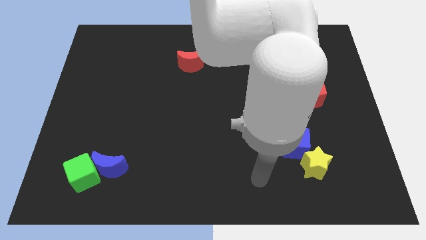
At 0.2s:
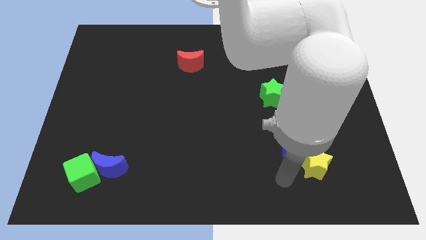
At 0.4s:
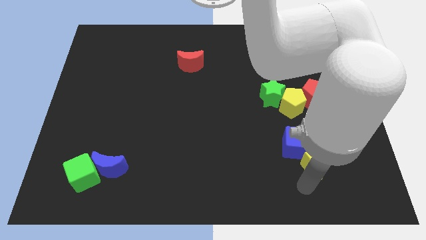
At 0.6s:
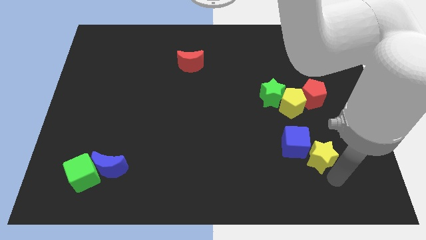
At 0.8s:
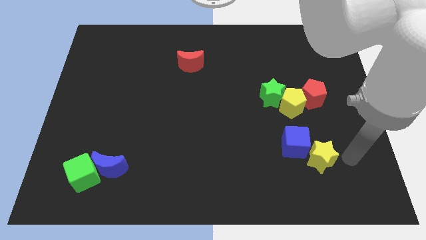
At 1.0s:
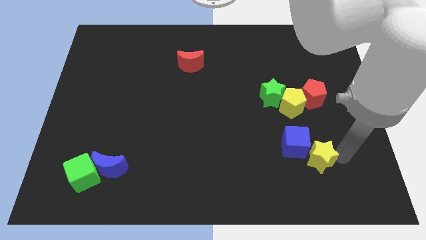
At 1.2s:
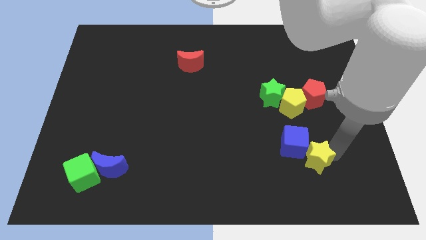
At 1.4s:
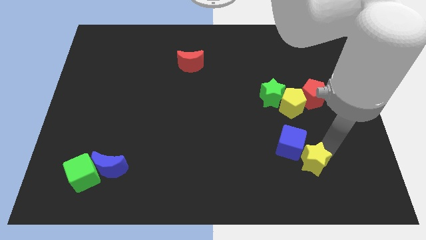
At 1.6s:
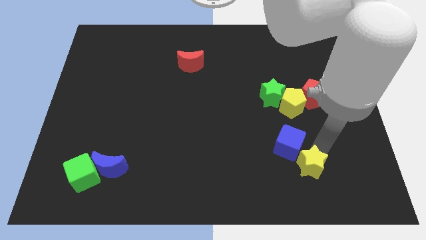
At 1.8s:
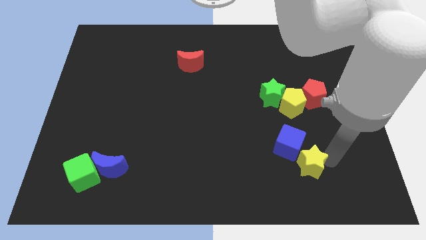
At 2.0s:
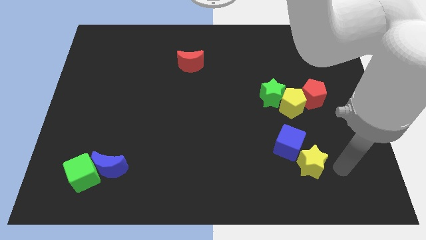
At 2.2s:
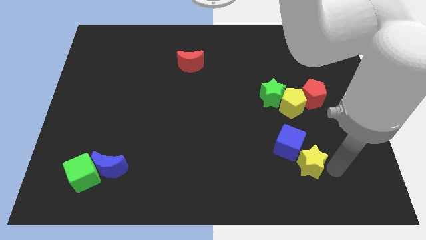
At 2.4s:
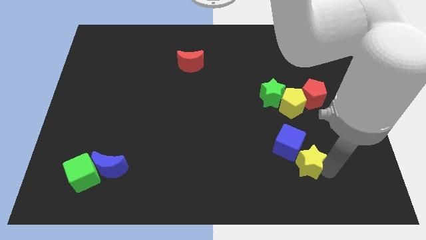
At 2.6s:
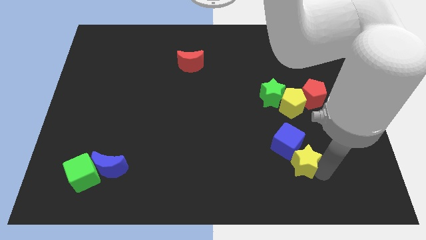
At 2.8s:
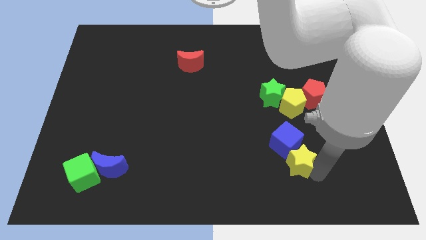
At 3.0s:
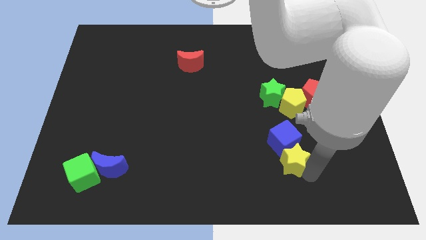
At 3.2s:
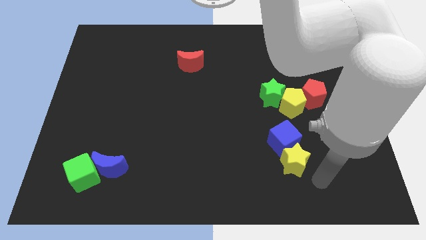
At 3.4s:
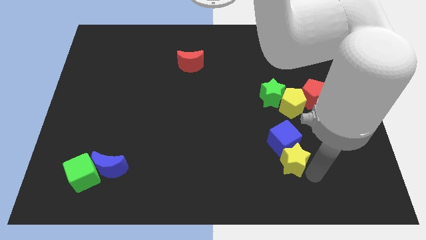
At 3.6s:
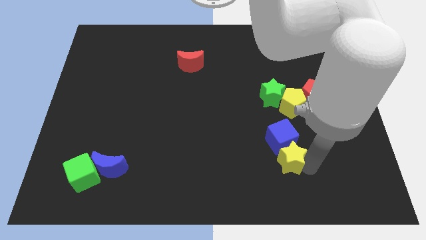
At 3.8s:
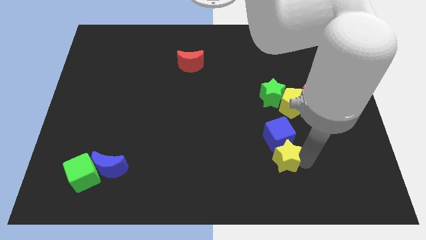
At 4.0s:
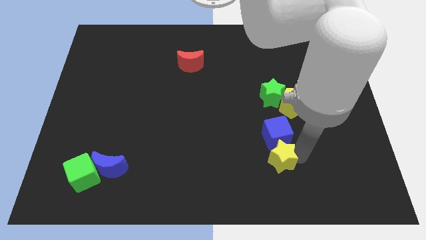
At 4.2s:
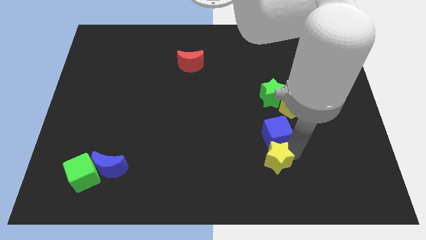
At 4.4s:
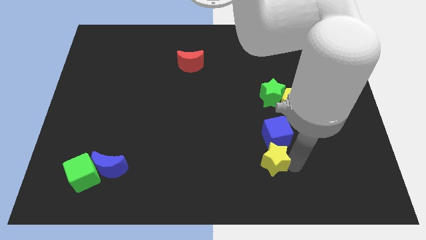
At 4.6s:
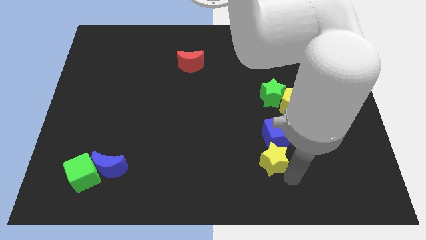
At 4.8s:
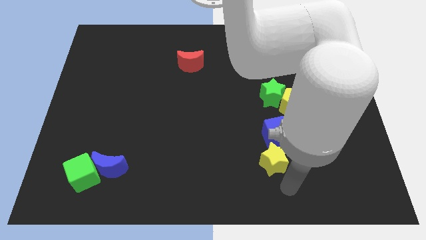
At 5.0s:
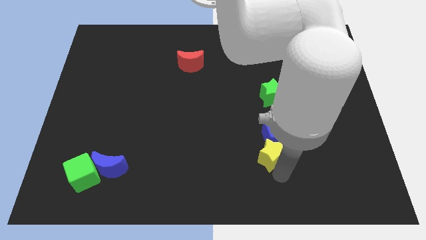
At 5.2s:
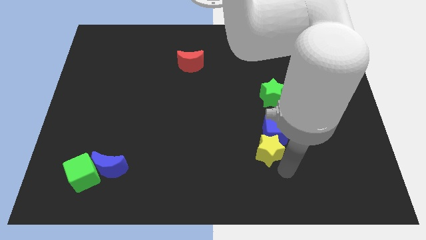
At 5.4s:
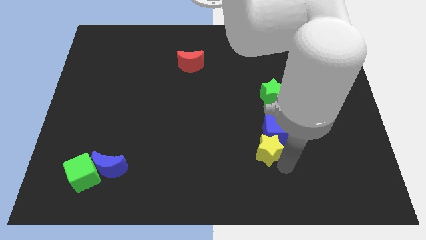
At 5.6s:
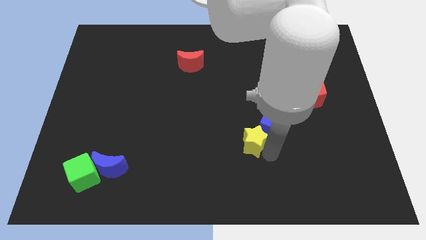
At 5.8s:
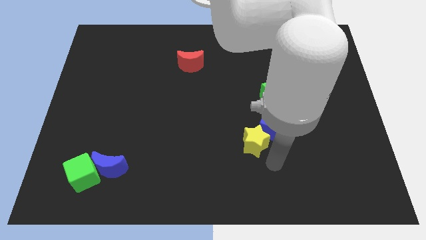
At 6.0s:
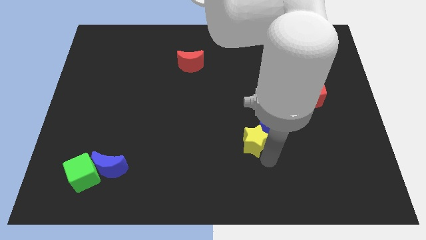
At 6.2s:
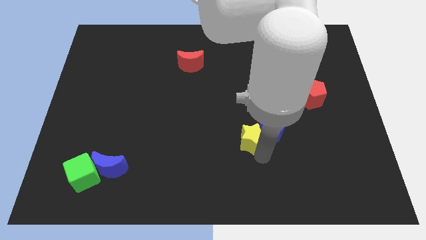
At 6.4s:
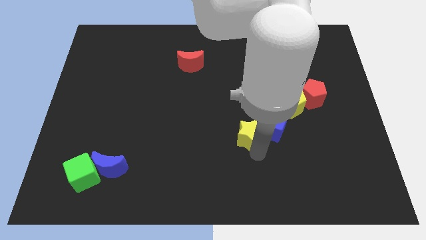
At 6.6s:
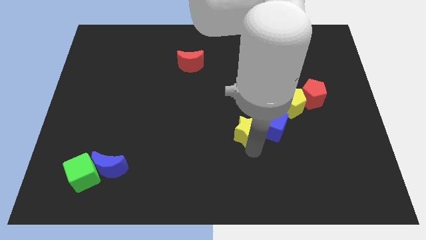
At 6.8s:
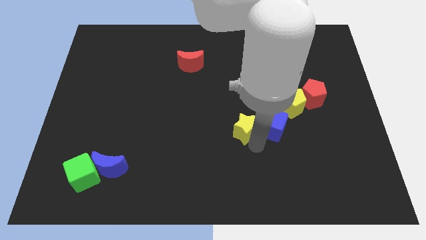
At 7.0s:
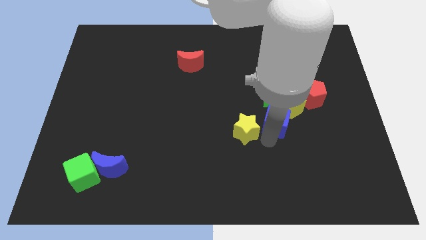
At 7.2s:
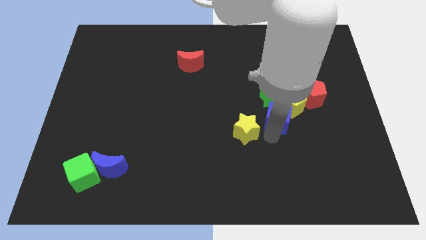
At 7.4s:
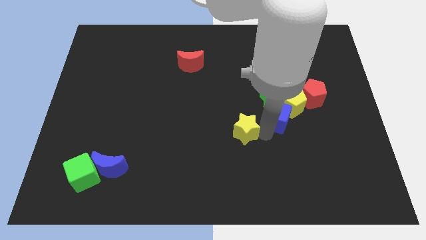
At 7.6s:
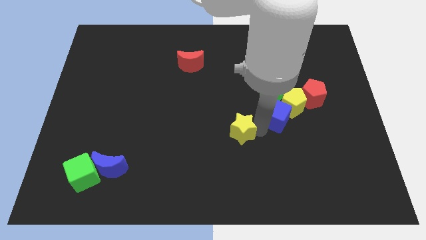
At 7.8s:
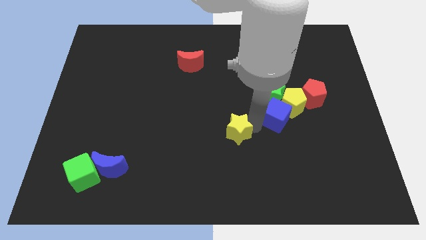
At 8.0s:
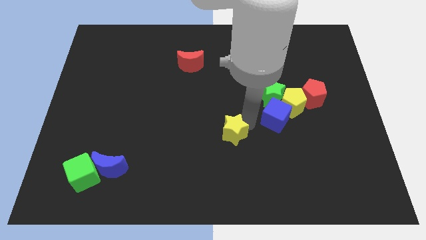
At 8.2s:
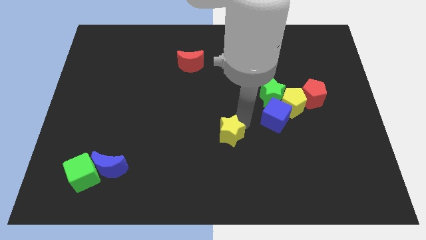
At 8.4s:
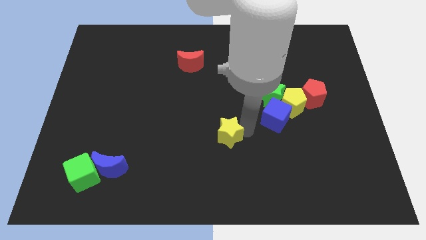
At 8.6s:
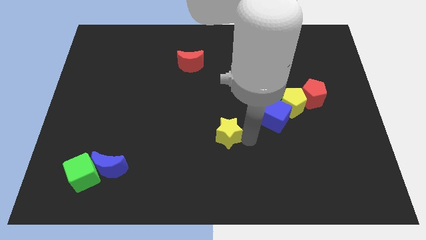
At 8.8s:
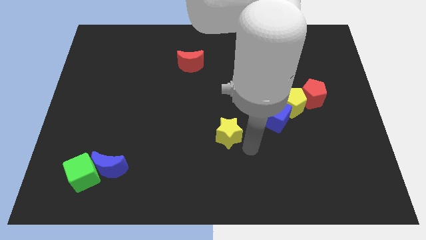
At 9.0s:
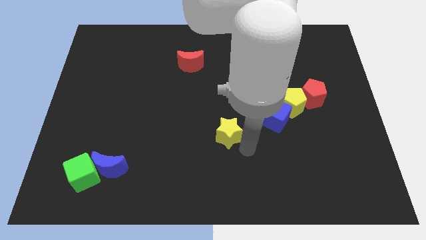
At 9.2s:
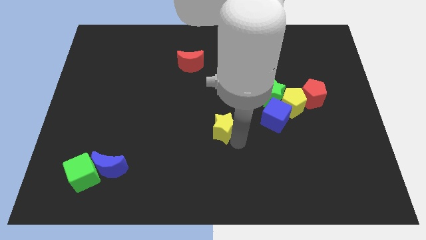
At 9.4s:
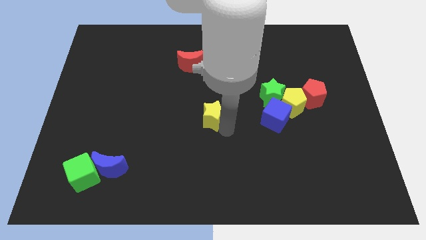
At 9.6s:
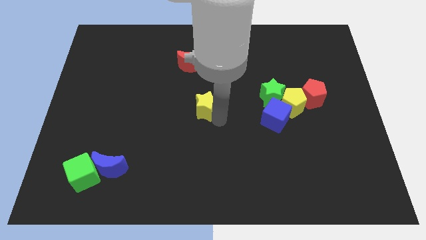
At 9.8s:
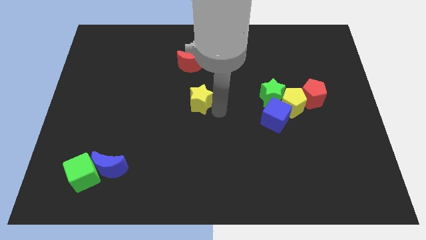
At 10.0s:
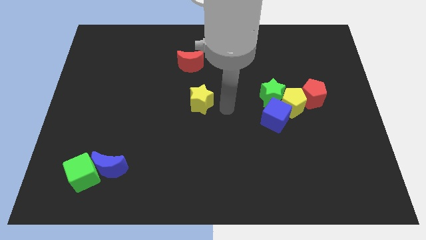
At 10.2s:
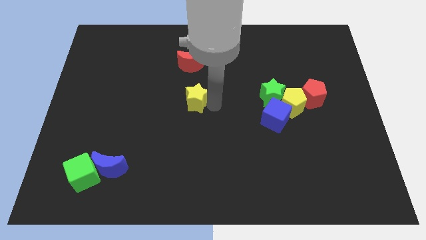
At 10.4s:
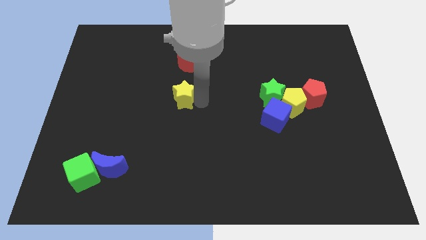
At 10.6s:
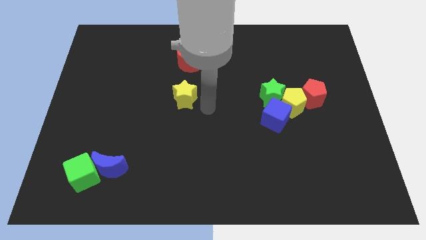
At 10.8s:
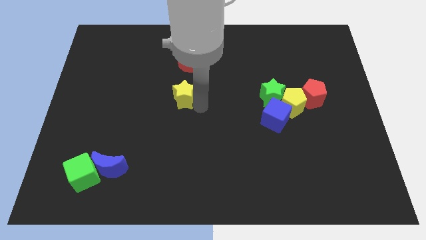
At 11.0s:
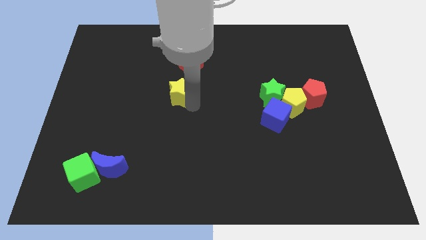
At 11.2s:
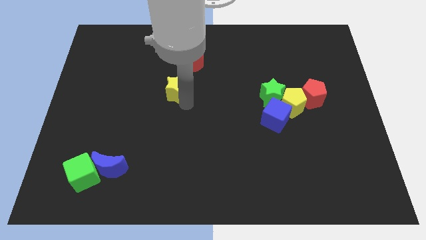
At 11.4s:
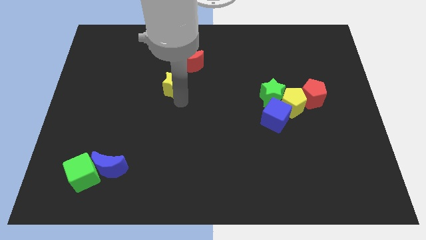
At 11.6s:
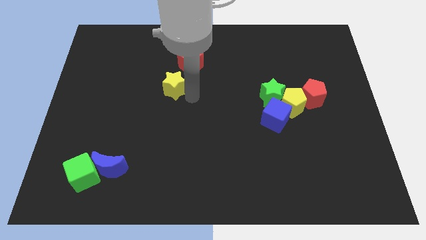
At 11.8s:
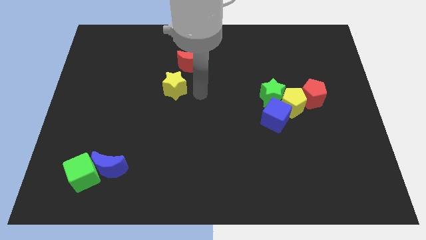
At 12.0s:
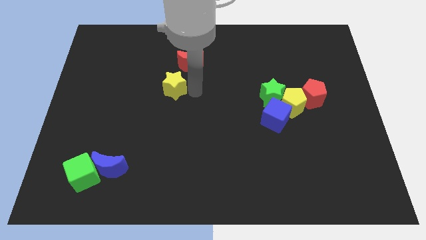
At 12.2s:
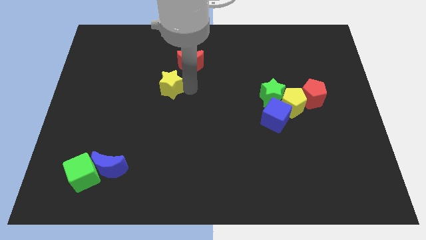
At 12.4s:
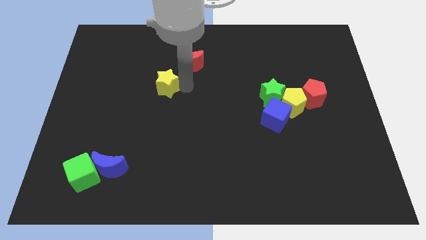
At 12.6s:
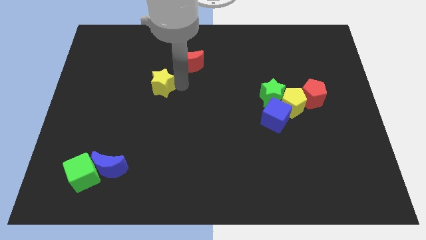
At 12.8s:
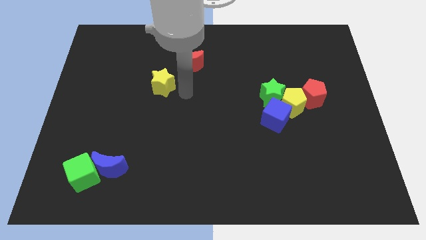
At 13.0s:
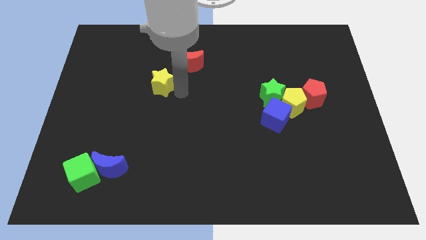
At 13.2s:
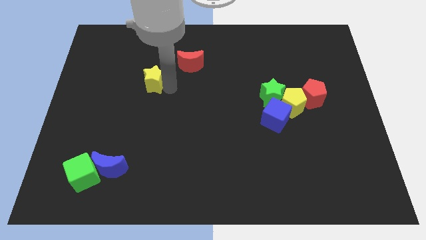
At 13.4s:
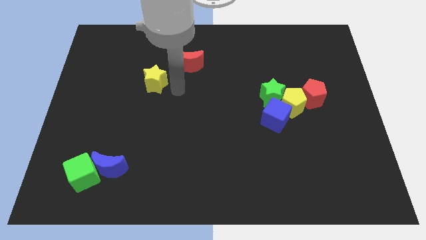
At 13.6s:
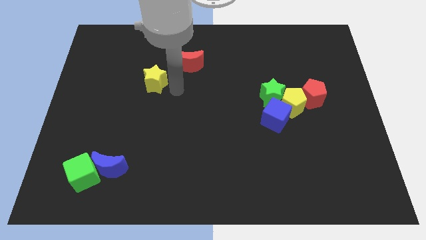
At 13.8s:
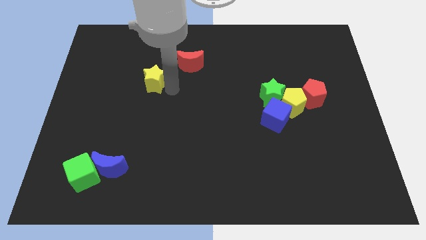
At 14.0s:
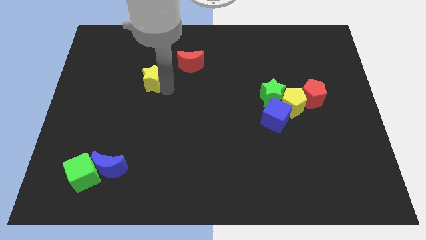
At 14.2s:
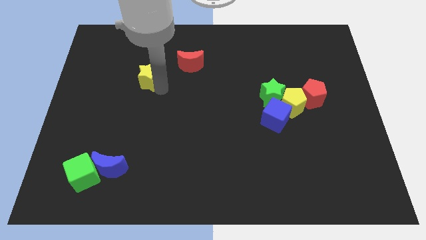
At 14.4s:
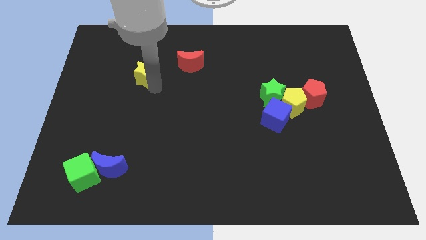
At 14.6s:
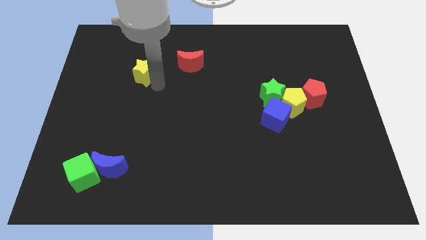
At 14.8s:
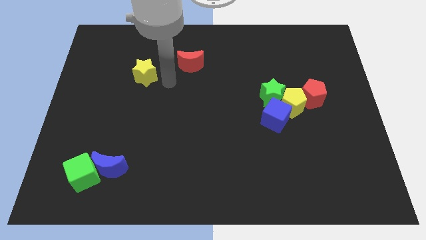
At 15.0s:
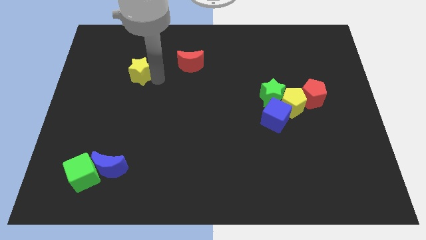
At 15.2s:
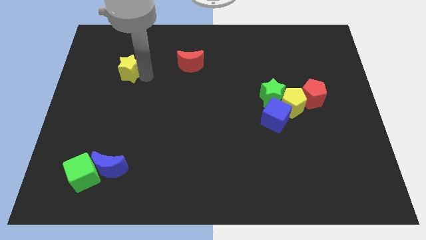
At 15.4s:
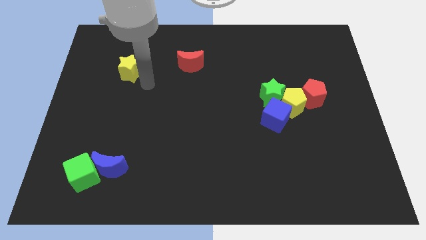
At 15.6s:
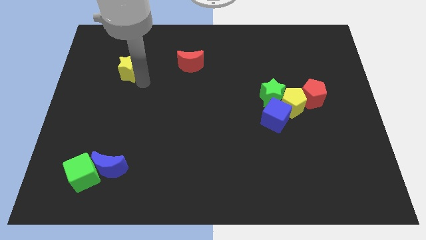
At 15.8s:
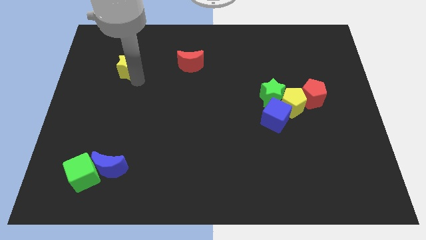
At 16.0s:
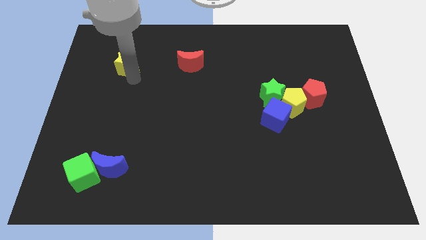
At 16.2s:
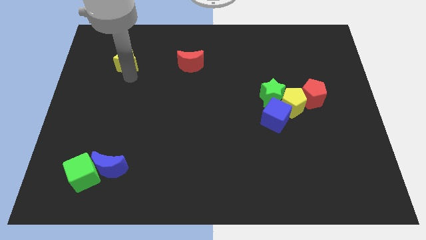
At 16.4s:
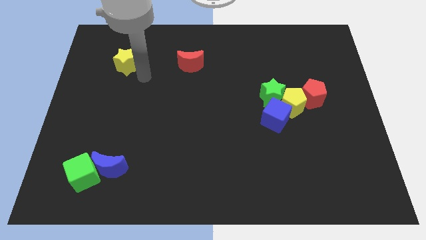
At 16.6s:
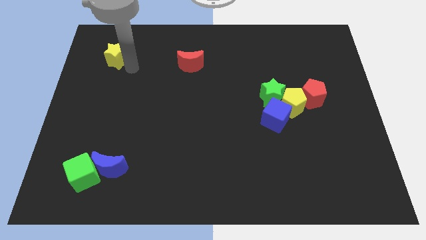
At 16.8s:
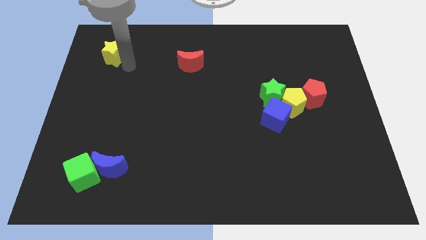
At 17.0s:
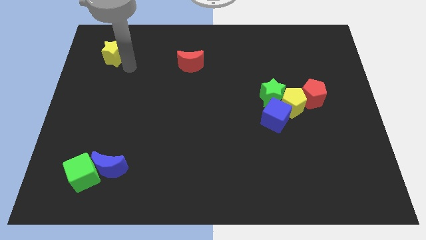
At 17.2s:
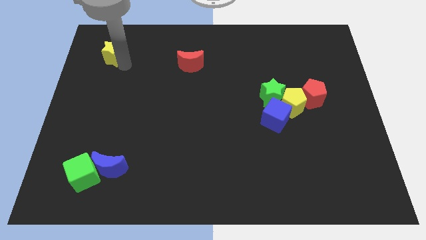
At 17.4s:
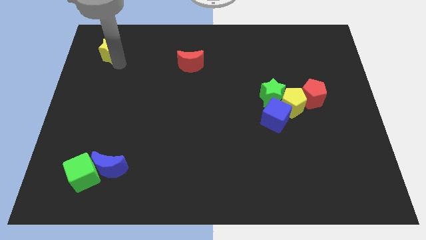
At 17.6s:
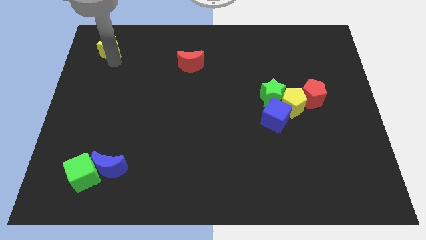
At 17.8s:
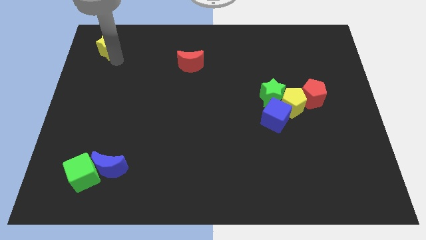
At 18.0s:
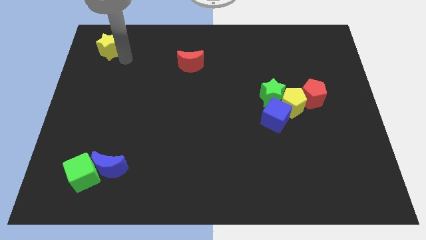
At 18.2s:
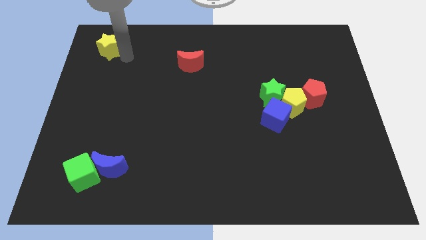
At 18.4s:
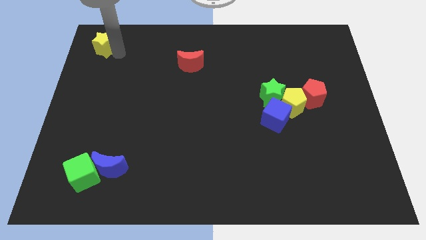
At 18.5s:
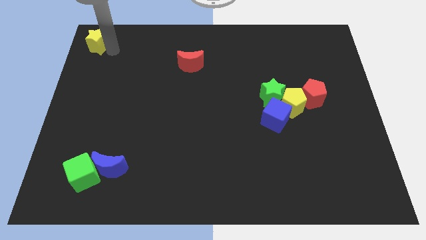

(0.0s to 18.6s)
push the yellow star to the top left
